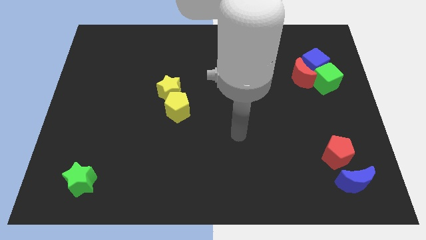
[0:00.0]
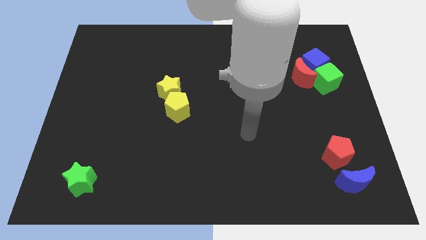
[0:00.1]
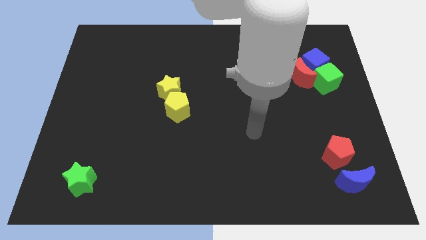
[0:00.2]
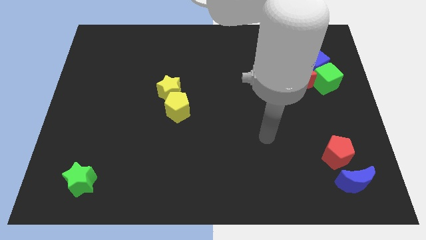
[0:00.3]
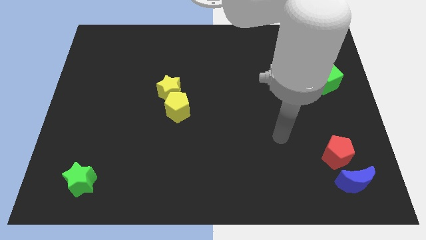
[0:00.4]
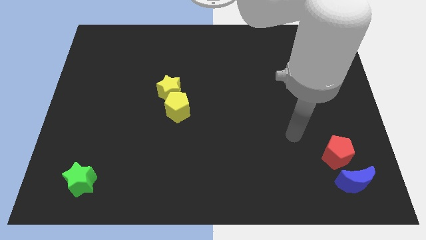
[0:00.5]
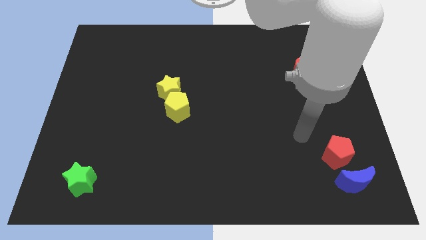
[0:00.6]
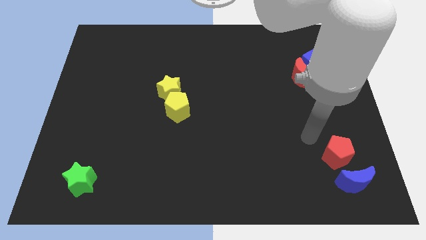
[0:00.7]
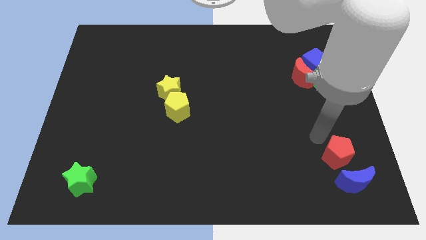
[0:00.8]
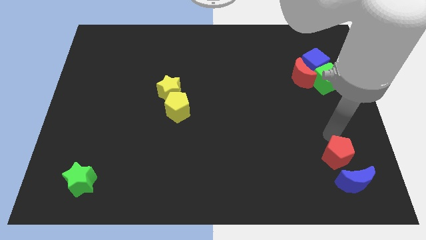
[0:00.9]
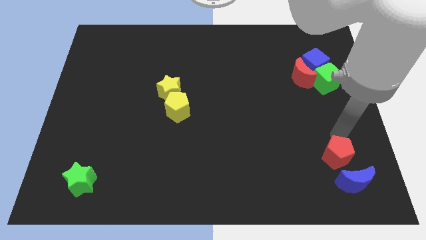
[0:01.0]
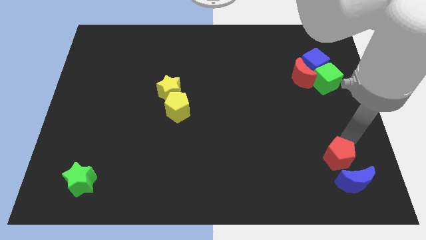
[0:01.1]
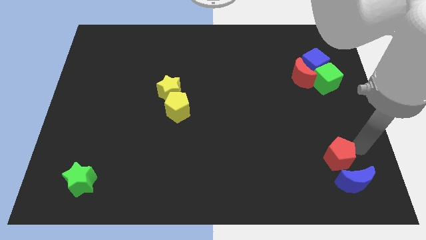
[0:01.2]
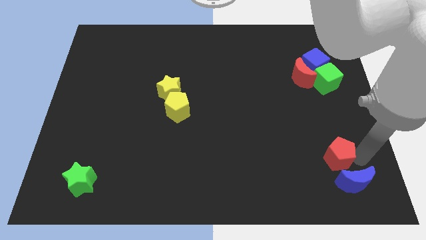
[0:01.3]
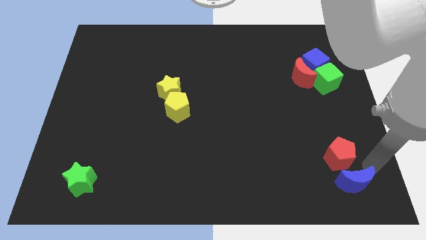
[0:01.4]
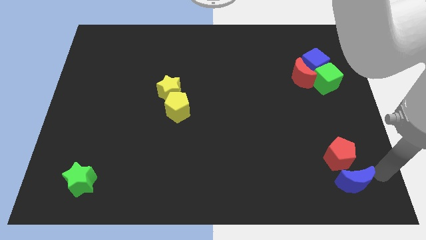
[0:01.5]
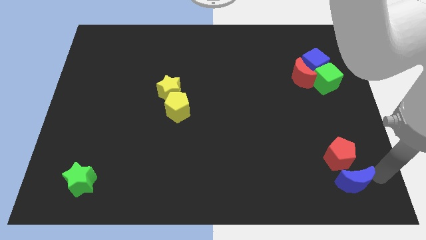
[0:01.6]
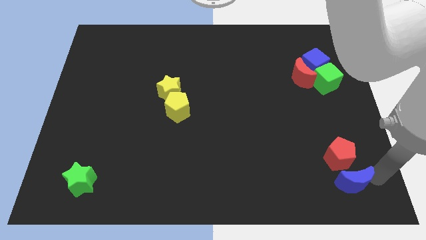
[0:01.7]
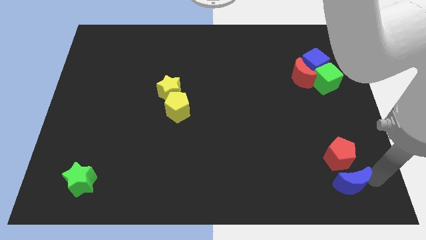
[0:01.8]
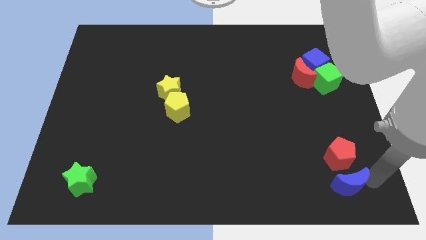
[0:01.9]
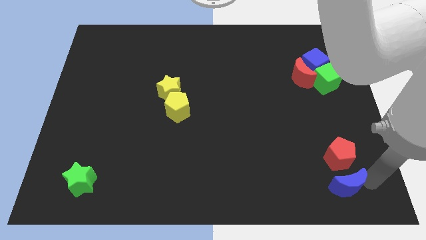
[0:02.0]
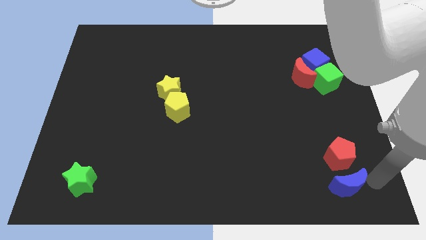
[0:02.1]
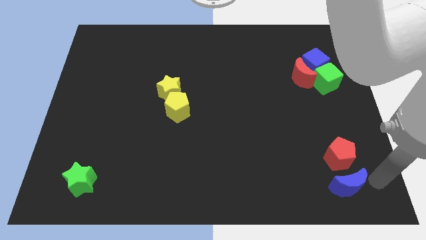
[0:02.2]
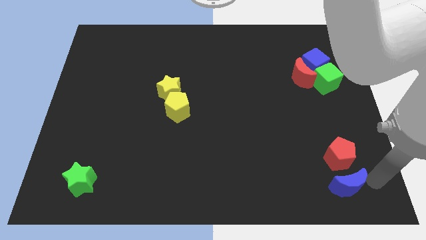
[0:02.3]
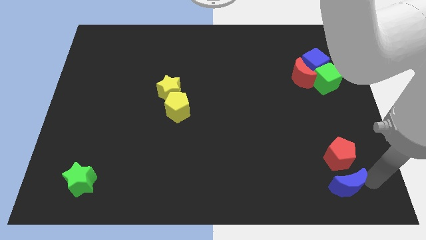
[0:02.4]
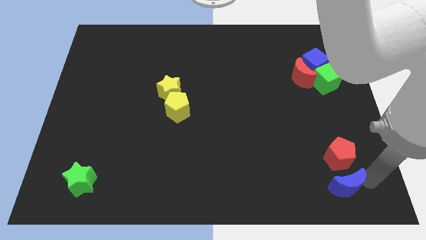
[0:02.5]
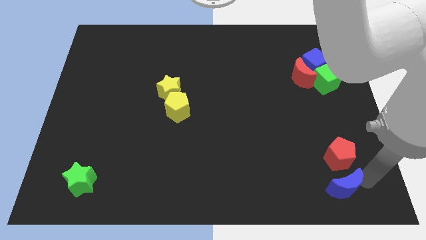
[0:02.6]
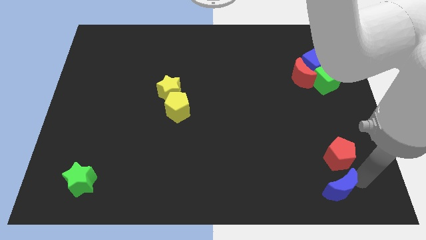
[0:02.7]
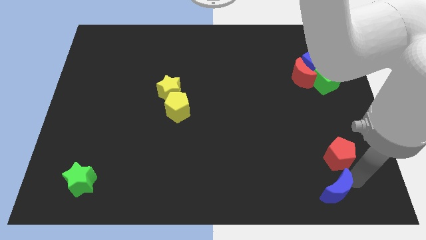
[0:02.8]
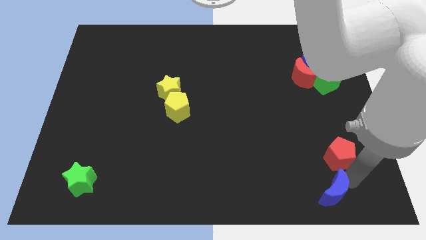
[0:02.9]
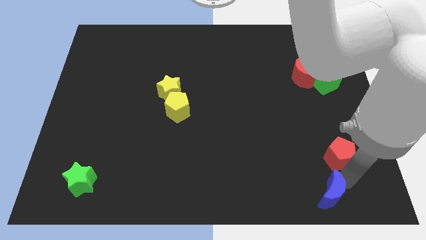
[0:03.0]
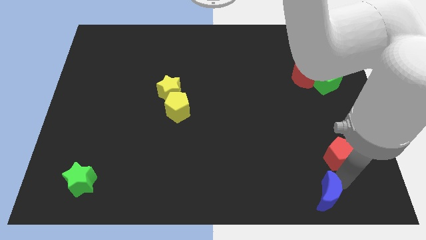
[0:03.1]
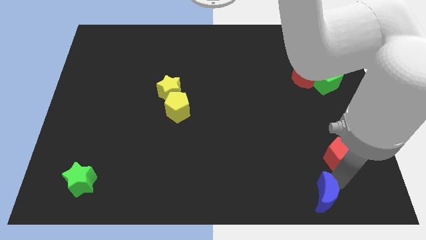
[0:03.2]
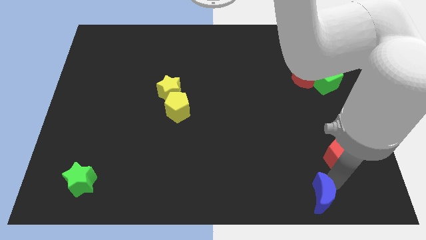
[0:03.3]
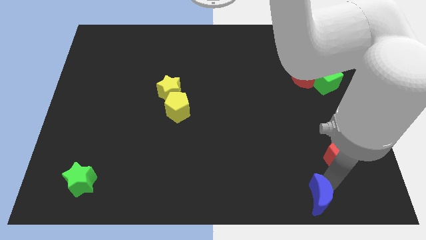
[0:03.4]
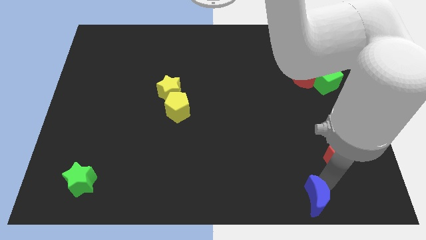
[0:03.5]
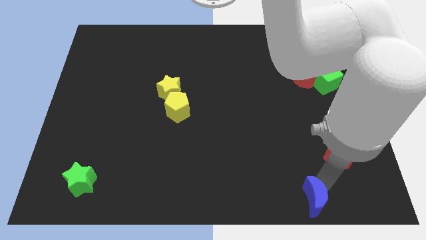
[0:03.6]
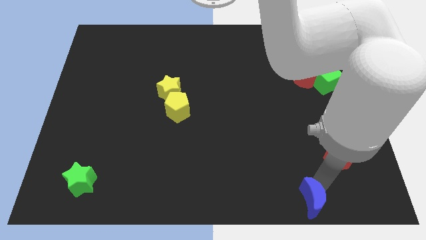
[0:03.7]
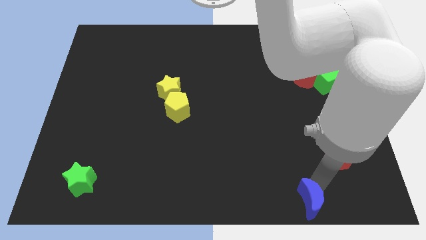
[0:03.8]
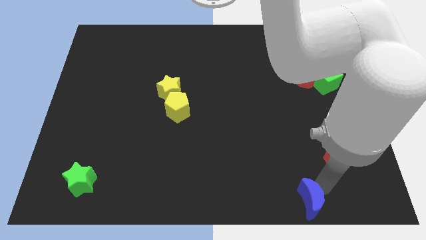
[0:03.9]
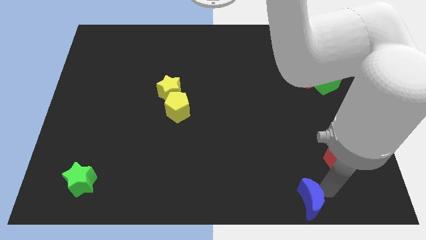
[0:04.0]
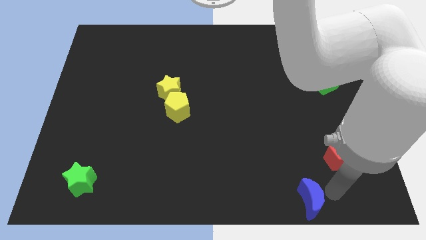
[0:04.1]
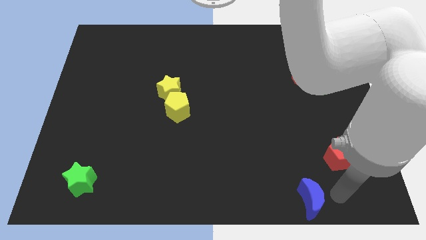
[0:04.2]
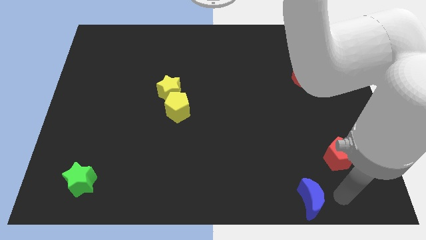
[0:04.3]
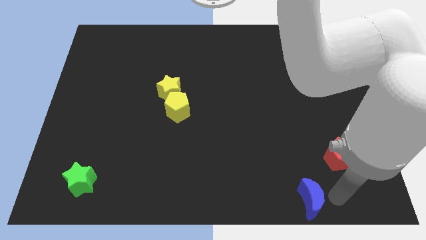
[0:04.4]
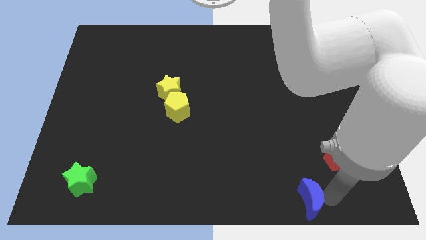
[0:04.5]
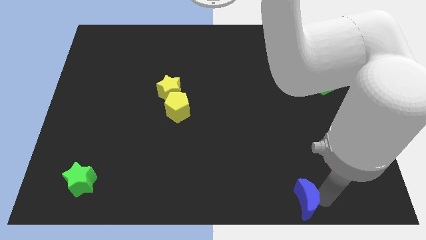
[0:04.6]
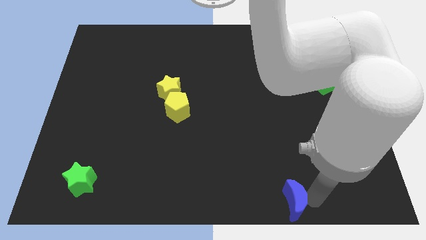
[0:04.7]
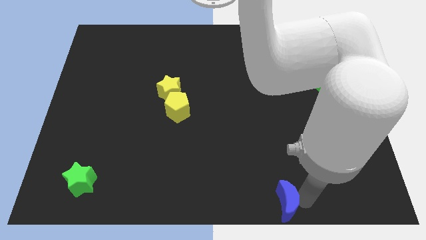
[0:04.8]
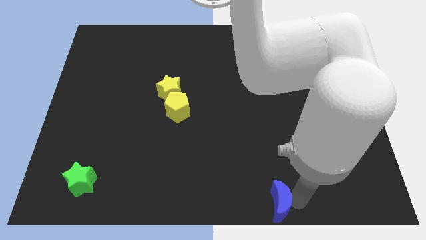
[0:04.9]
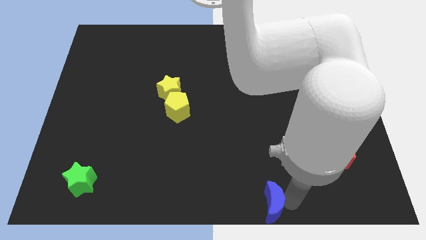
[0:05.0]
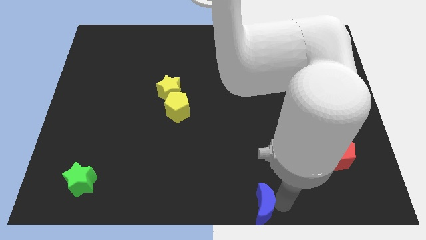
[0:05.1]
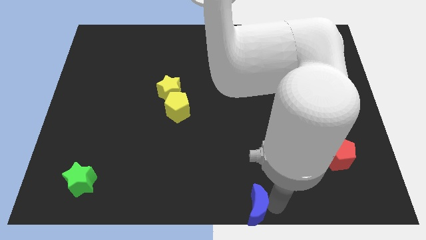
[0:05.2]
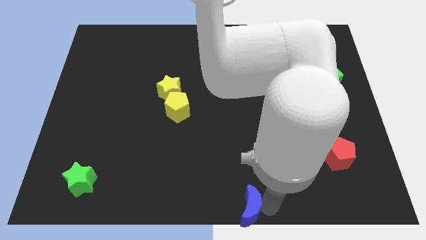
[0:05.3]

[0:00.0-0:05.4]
move the blue moon to the left

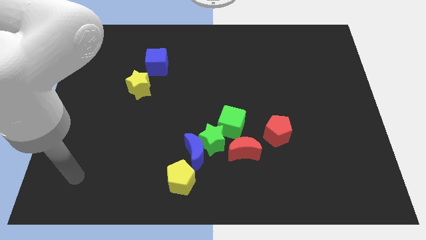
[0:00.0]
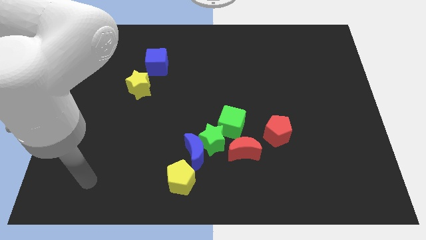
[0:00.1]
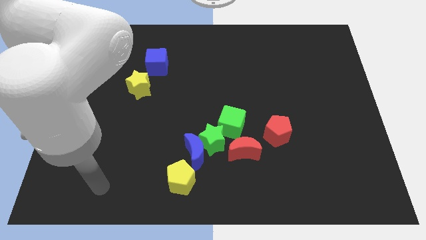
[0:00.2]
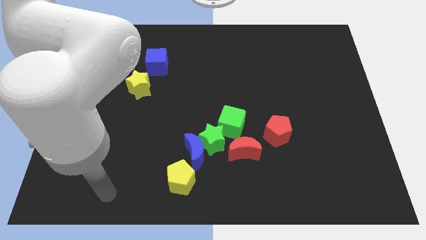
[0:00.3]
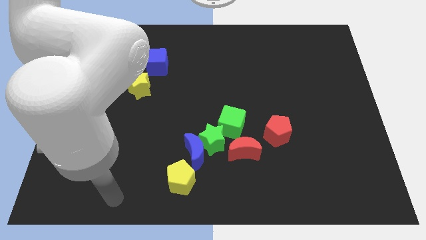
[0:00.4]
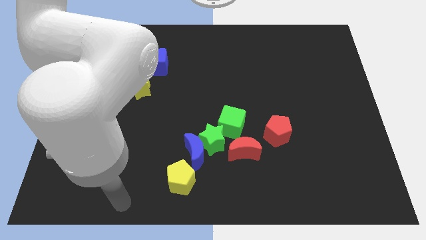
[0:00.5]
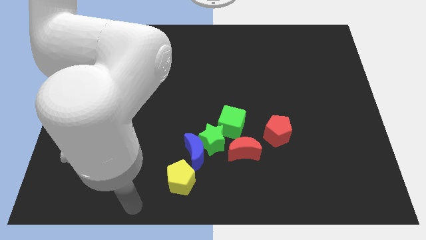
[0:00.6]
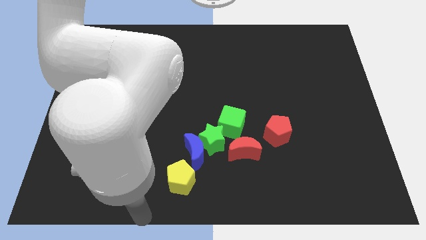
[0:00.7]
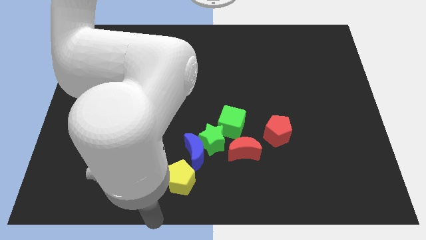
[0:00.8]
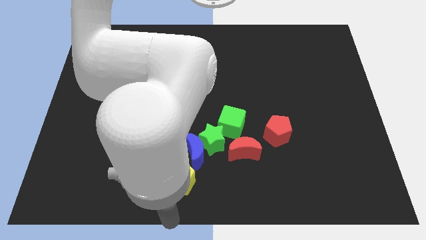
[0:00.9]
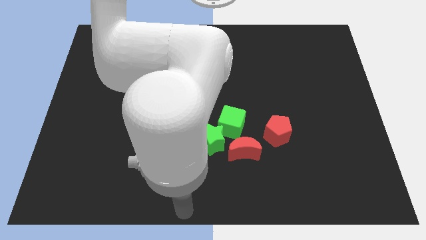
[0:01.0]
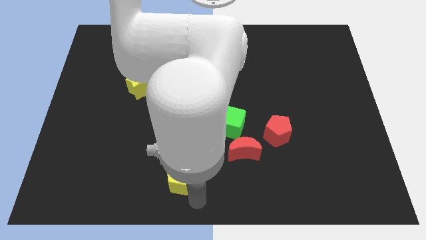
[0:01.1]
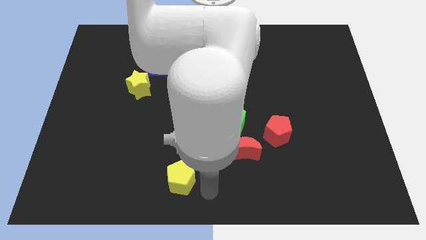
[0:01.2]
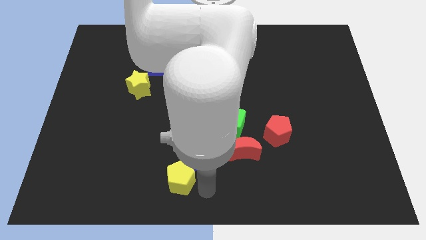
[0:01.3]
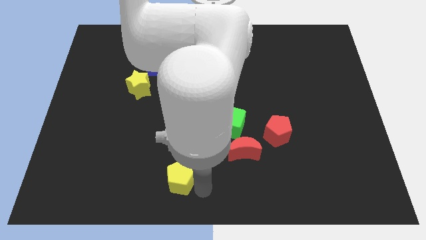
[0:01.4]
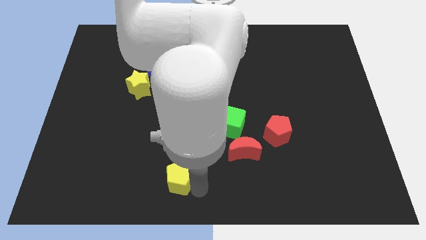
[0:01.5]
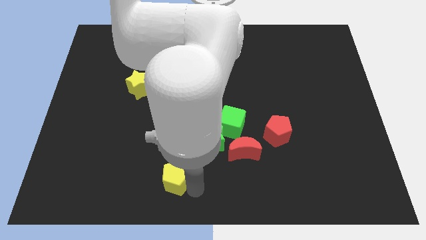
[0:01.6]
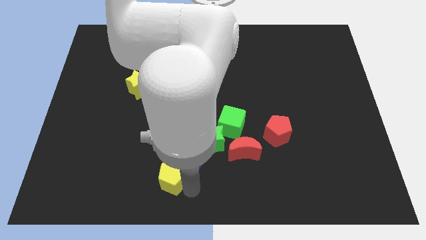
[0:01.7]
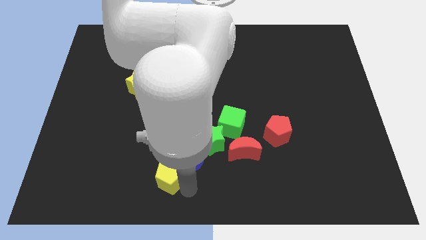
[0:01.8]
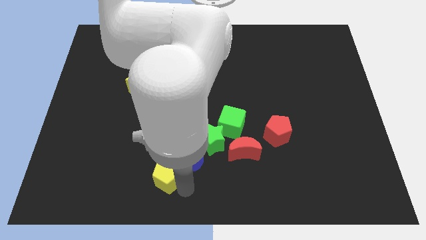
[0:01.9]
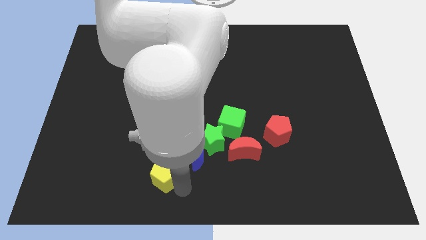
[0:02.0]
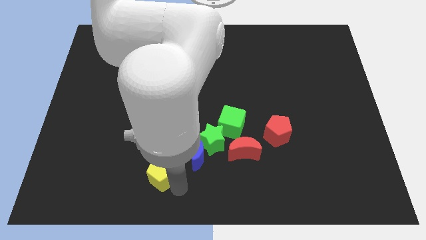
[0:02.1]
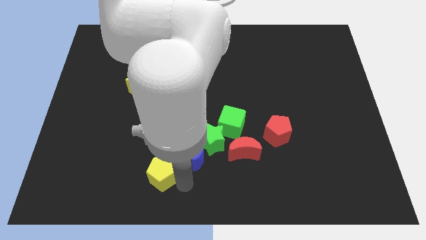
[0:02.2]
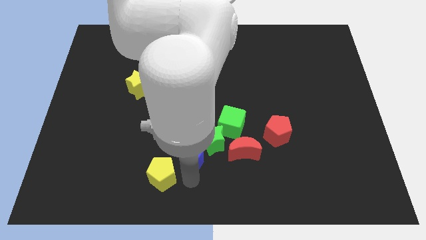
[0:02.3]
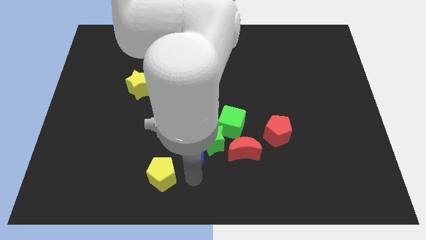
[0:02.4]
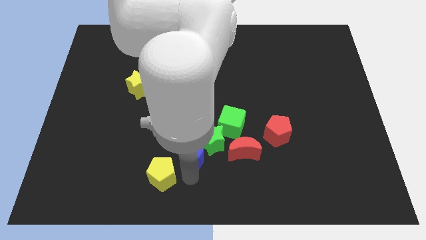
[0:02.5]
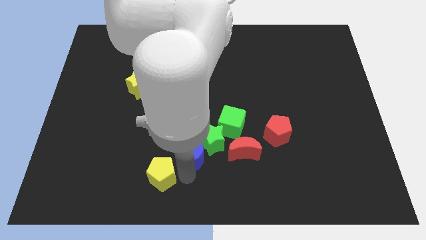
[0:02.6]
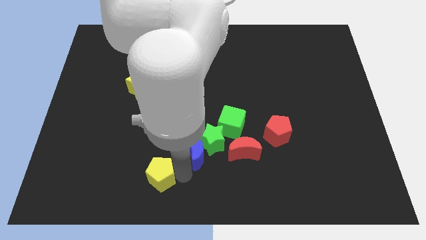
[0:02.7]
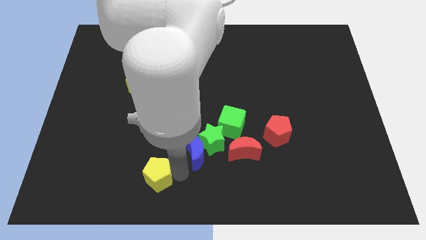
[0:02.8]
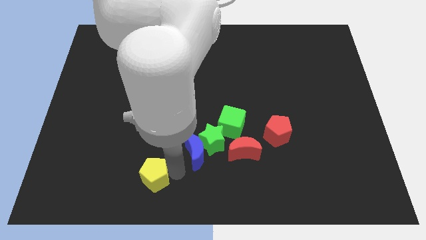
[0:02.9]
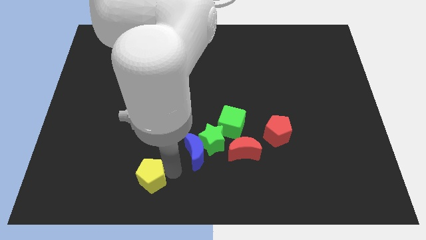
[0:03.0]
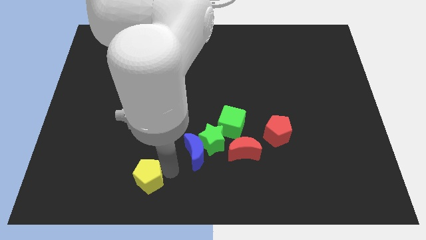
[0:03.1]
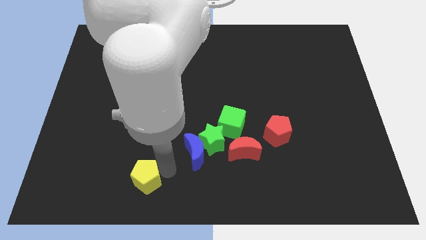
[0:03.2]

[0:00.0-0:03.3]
slide the yellow pentagon a little bit to the left
